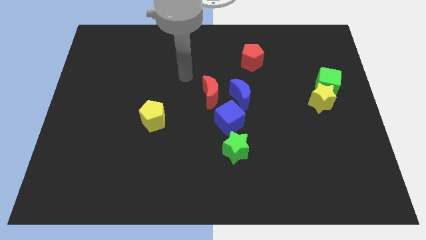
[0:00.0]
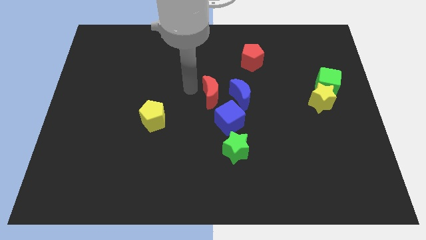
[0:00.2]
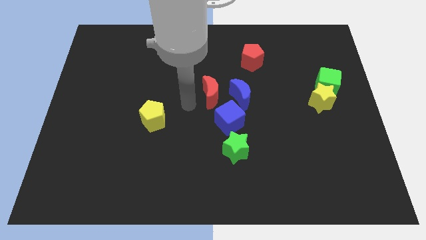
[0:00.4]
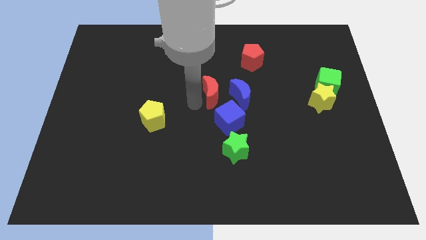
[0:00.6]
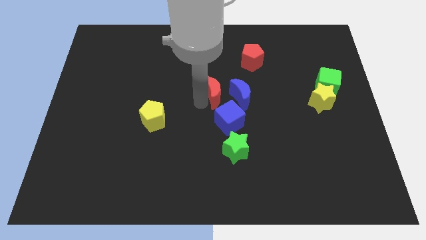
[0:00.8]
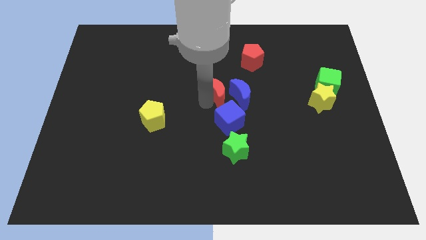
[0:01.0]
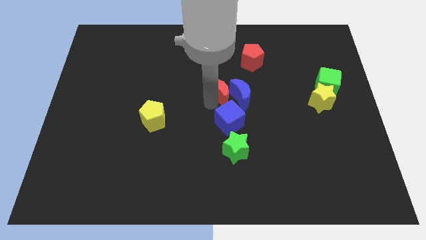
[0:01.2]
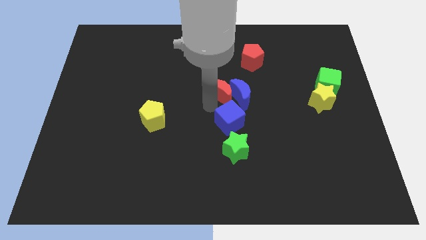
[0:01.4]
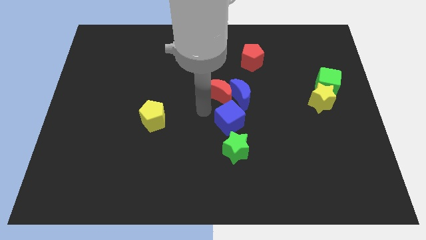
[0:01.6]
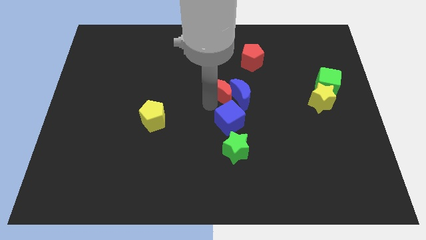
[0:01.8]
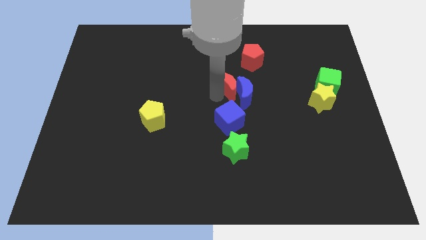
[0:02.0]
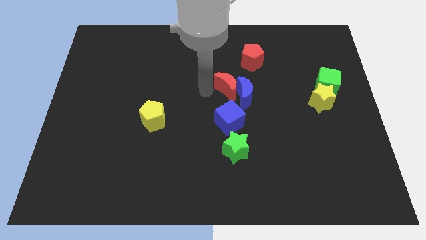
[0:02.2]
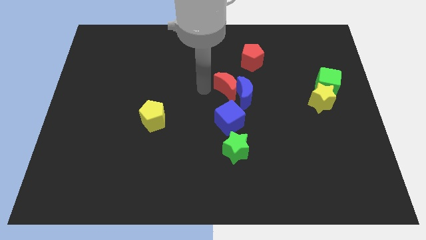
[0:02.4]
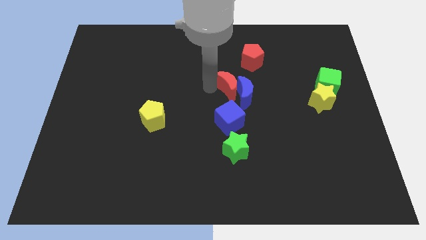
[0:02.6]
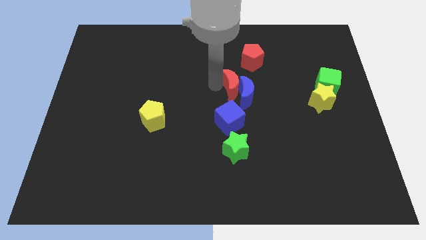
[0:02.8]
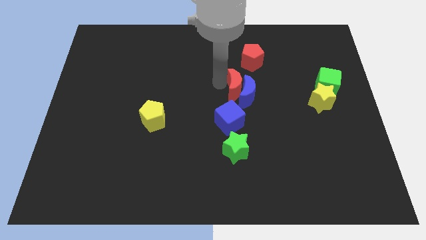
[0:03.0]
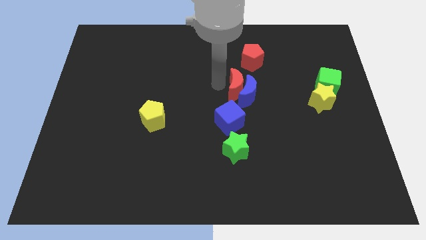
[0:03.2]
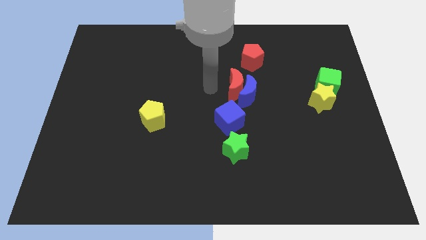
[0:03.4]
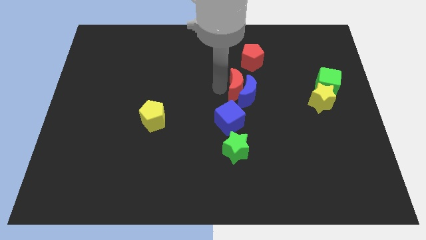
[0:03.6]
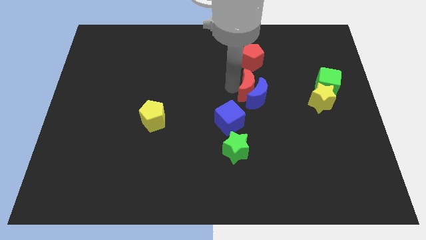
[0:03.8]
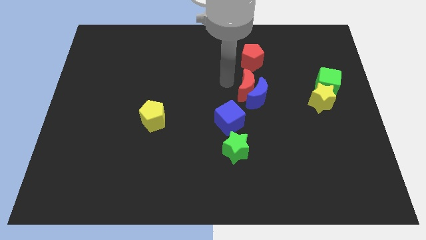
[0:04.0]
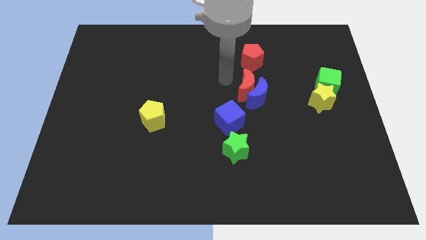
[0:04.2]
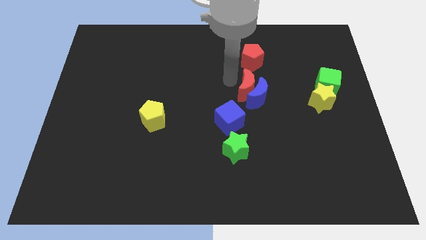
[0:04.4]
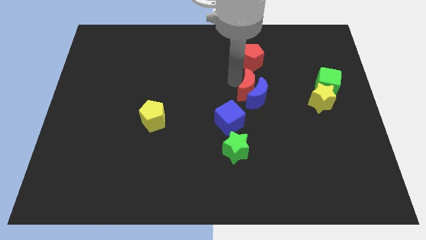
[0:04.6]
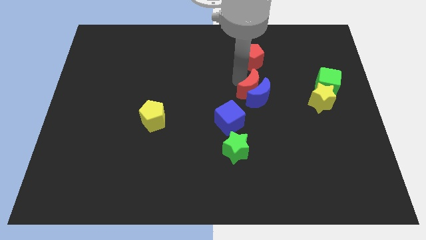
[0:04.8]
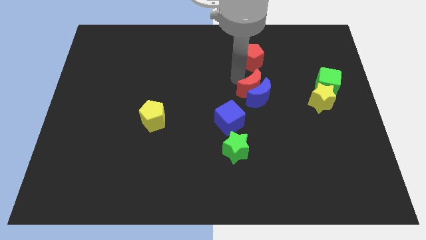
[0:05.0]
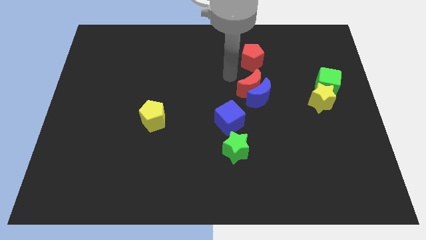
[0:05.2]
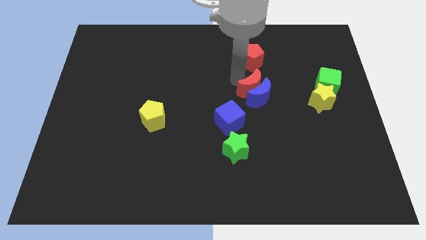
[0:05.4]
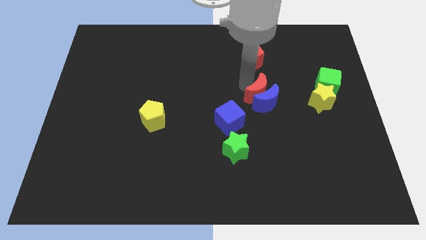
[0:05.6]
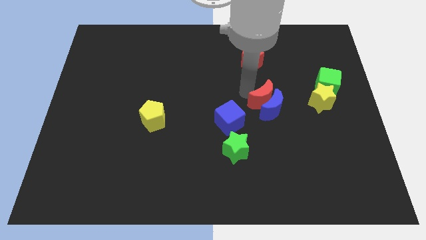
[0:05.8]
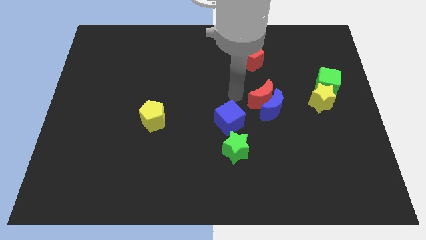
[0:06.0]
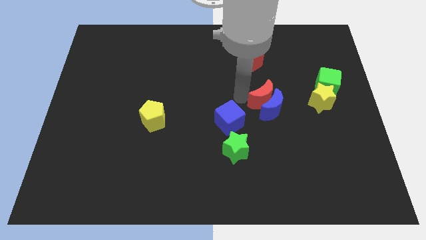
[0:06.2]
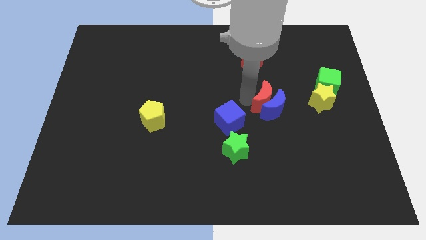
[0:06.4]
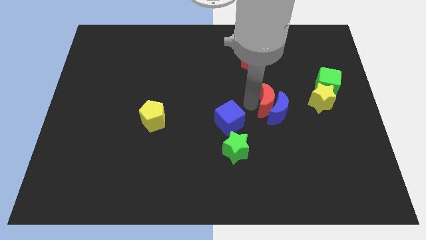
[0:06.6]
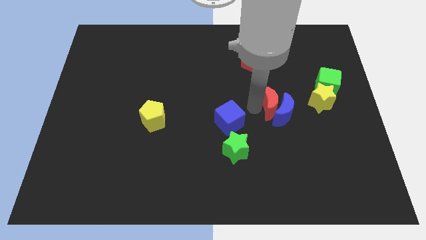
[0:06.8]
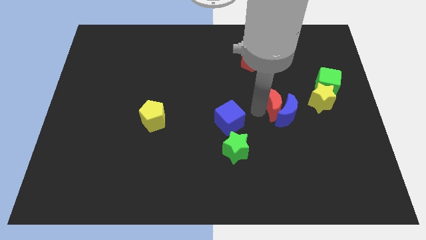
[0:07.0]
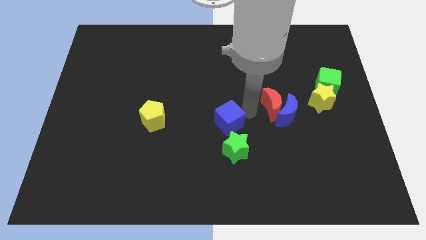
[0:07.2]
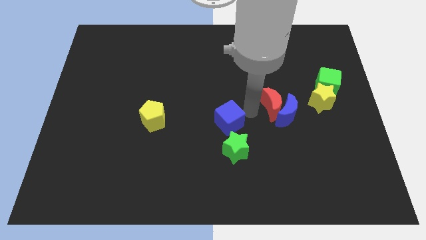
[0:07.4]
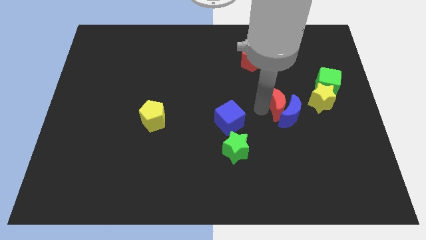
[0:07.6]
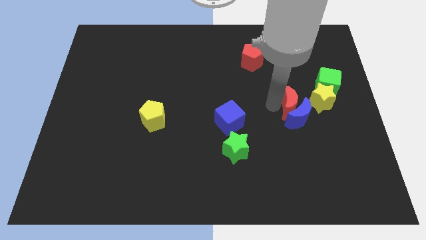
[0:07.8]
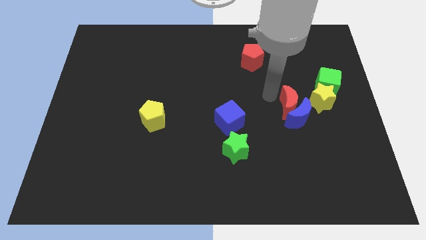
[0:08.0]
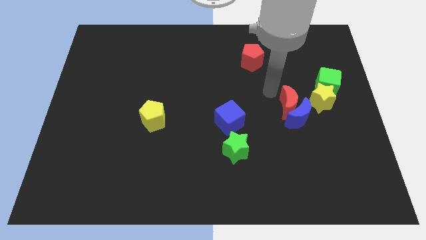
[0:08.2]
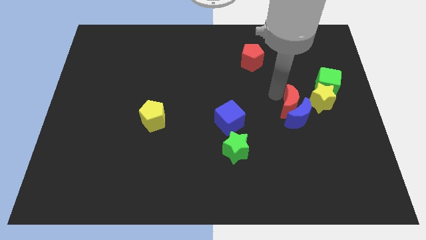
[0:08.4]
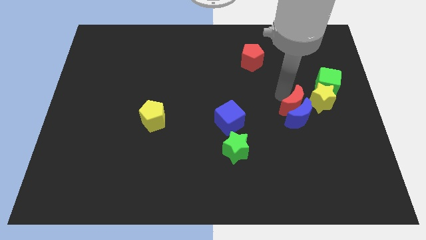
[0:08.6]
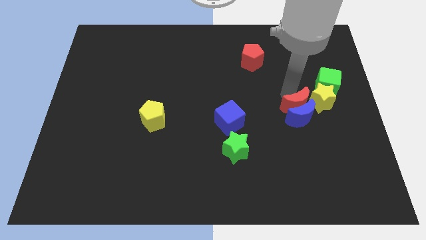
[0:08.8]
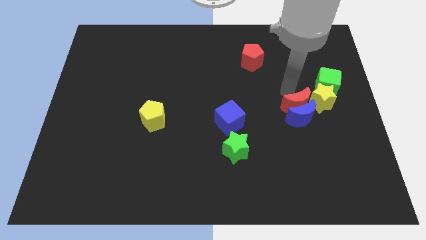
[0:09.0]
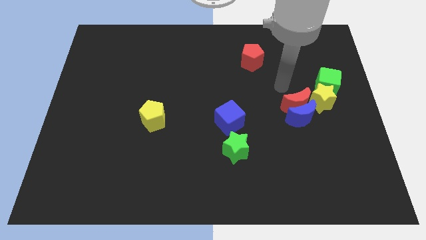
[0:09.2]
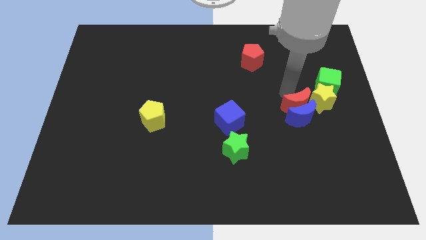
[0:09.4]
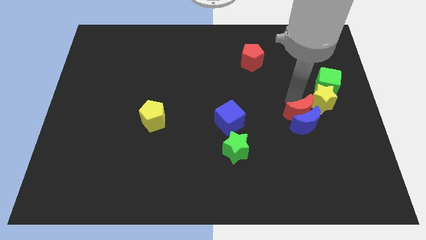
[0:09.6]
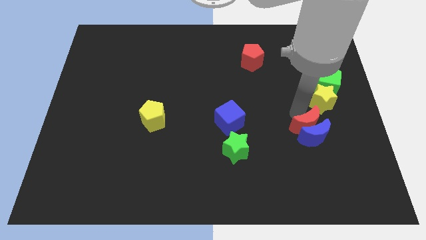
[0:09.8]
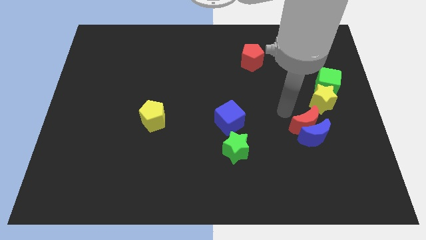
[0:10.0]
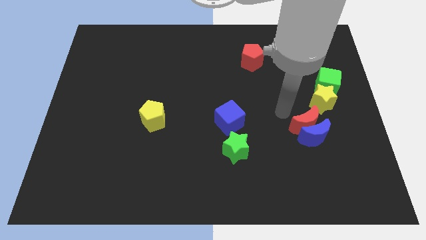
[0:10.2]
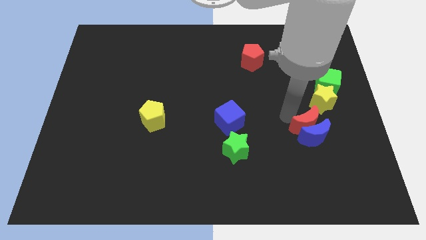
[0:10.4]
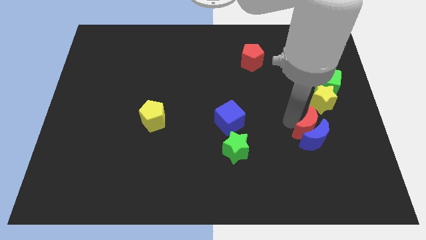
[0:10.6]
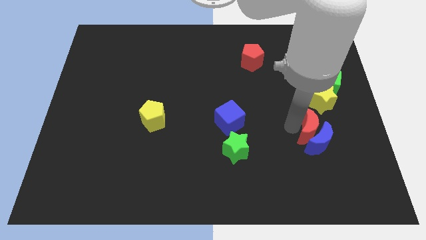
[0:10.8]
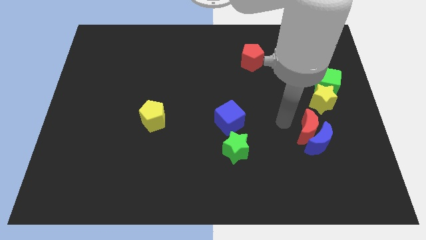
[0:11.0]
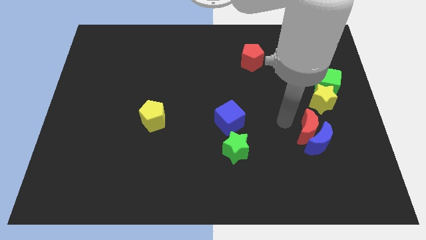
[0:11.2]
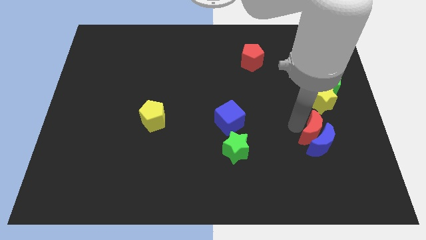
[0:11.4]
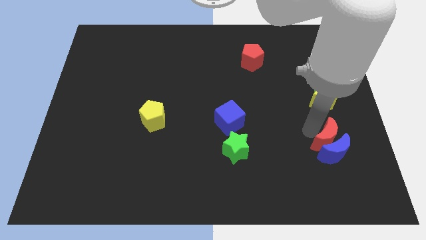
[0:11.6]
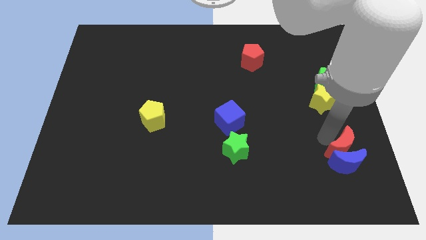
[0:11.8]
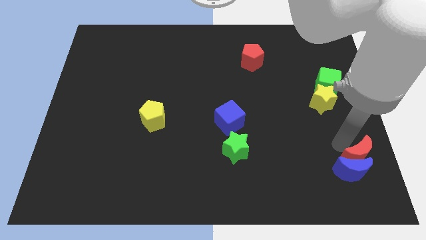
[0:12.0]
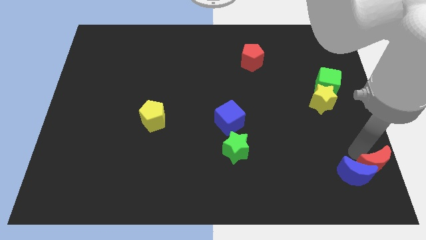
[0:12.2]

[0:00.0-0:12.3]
slide the red moon to the bottom right of the board

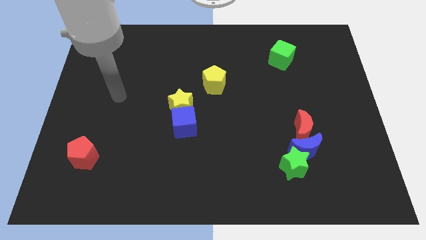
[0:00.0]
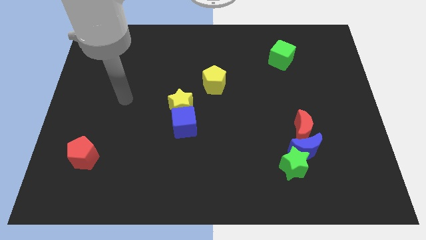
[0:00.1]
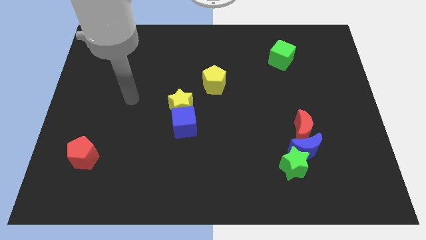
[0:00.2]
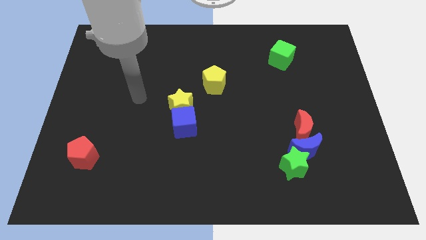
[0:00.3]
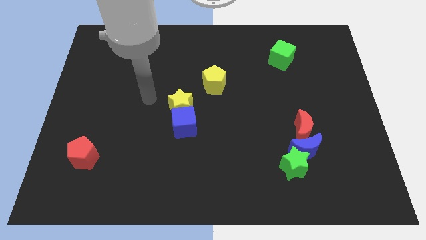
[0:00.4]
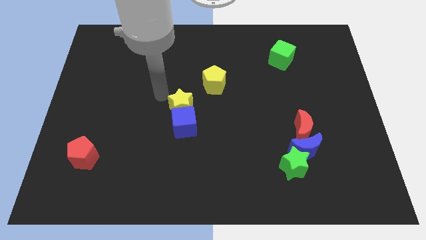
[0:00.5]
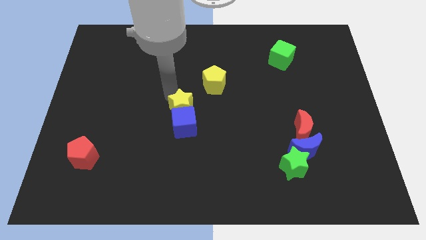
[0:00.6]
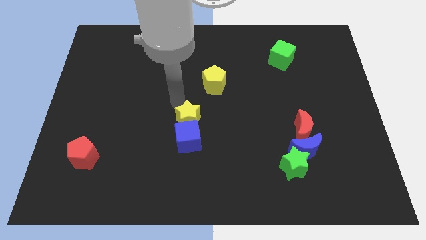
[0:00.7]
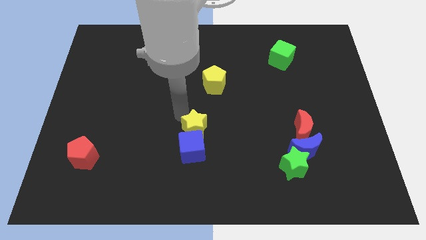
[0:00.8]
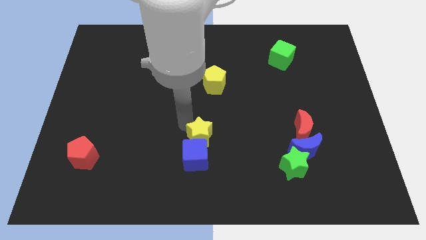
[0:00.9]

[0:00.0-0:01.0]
put the blue cube to the bottom
